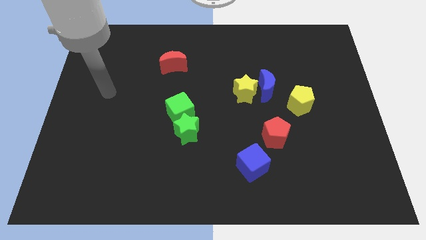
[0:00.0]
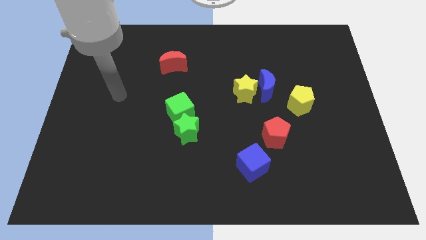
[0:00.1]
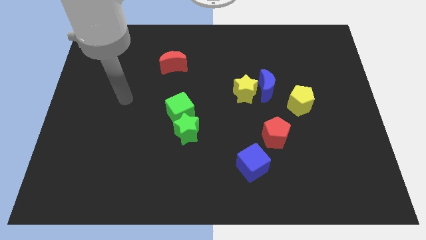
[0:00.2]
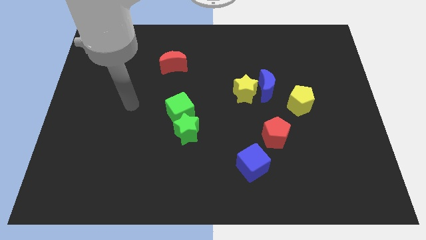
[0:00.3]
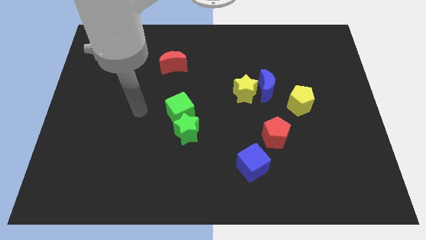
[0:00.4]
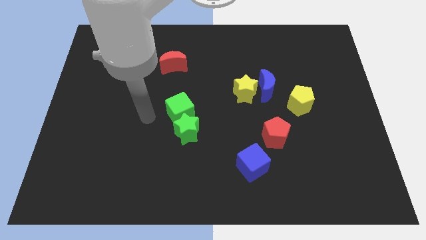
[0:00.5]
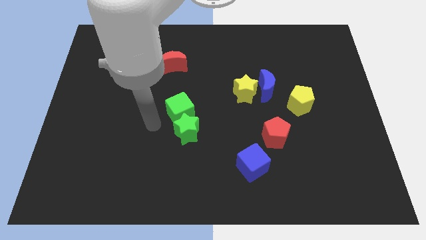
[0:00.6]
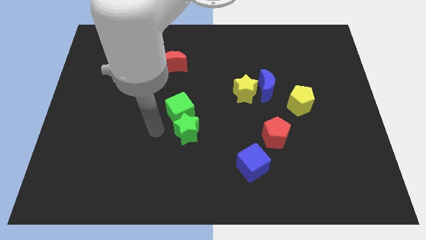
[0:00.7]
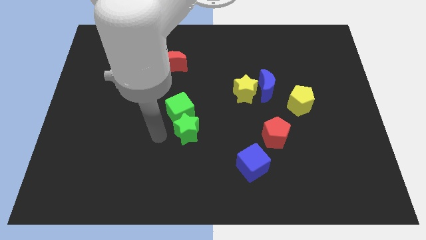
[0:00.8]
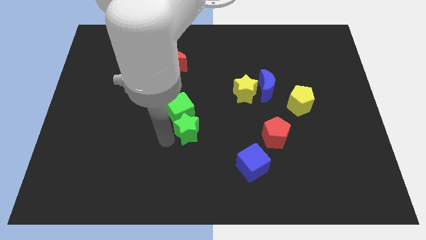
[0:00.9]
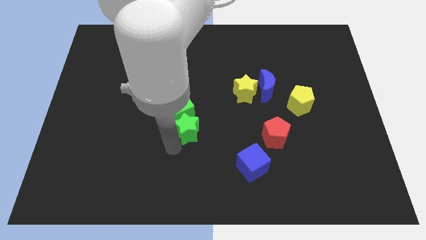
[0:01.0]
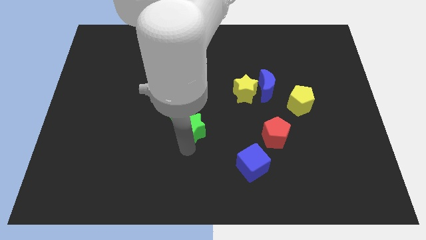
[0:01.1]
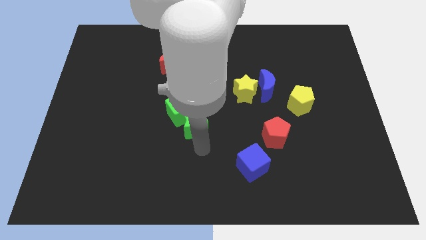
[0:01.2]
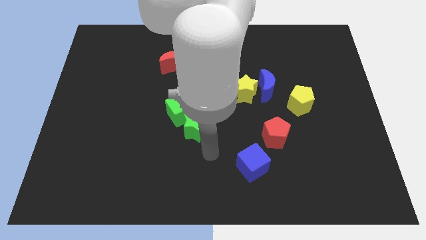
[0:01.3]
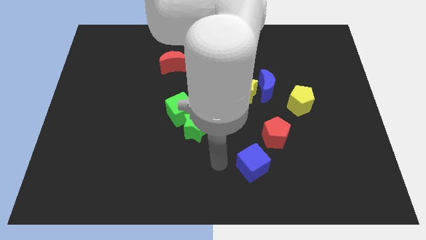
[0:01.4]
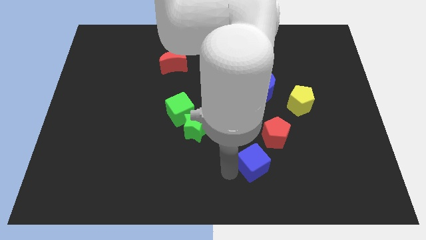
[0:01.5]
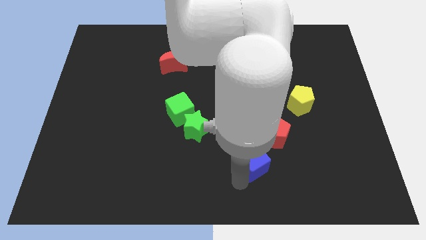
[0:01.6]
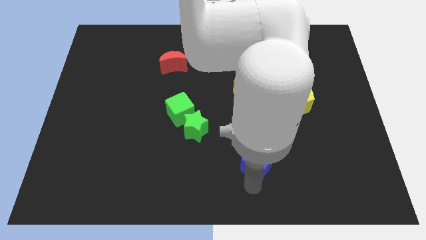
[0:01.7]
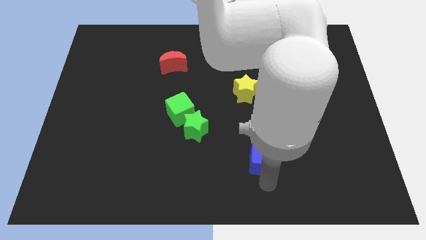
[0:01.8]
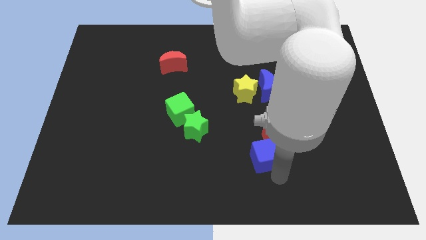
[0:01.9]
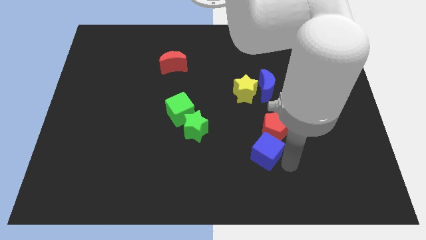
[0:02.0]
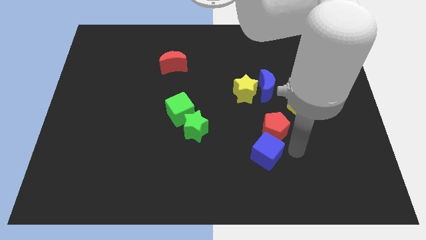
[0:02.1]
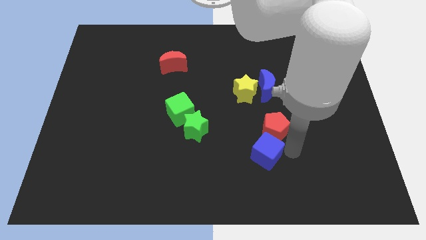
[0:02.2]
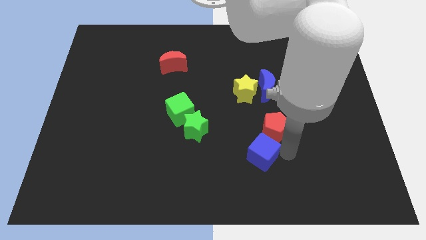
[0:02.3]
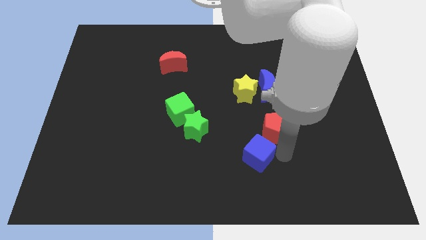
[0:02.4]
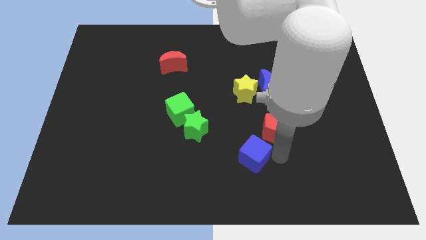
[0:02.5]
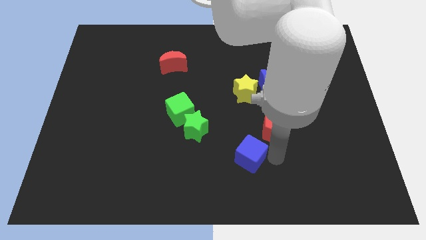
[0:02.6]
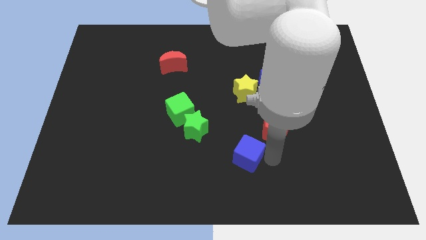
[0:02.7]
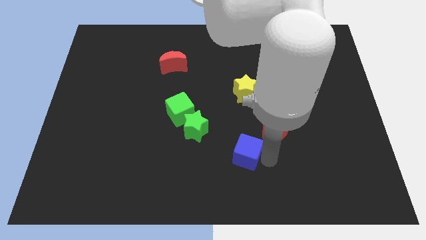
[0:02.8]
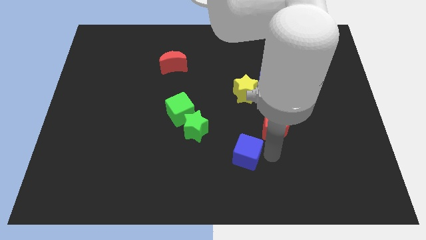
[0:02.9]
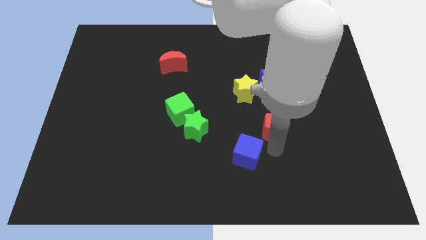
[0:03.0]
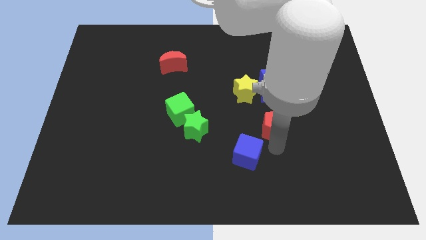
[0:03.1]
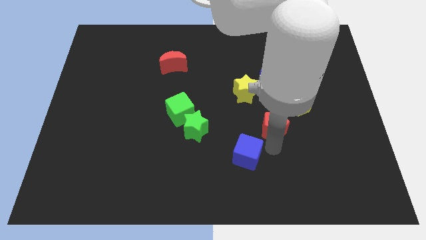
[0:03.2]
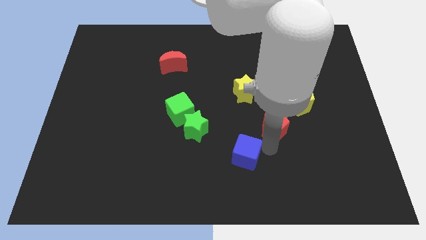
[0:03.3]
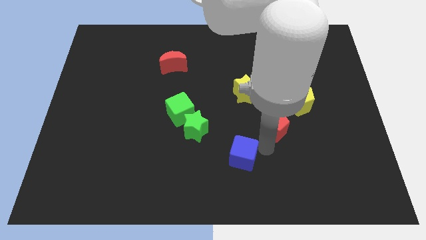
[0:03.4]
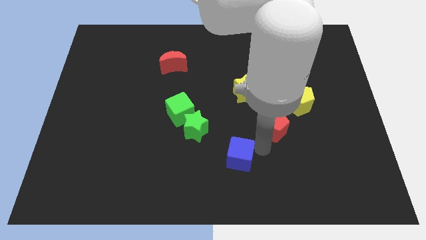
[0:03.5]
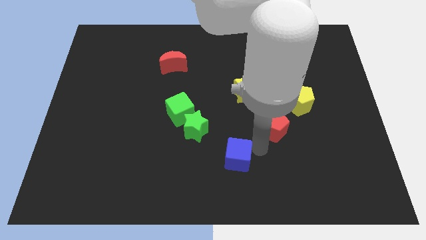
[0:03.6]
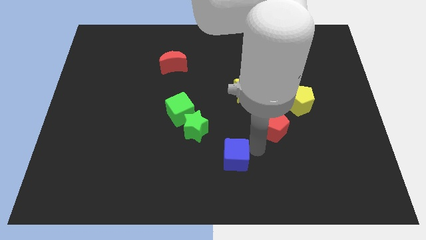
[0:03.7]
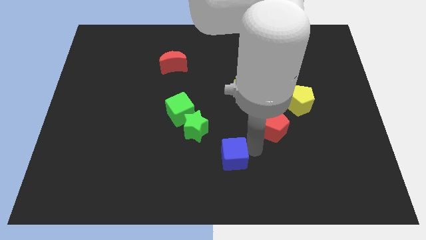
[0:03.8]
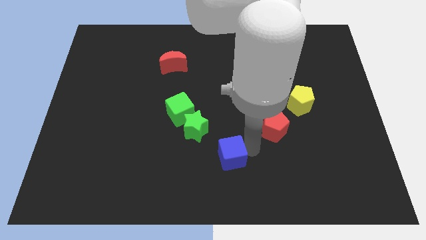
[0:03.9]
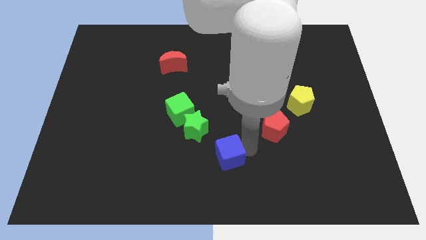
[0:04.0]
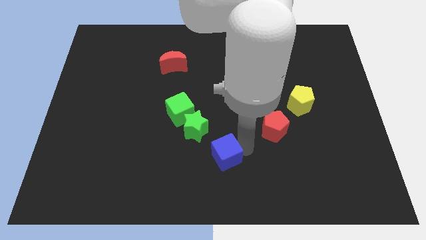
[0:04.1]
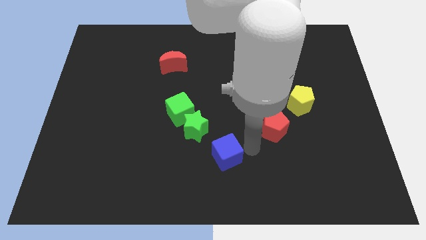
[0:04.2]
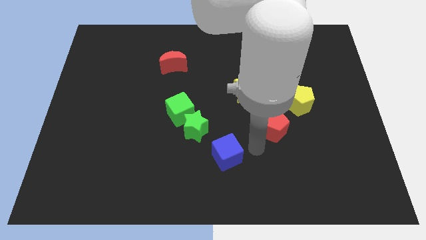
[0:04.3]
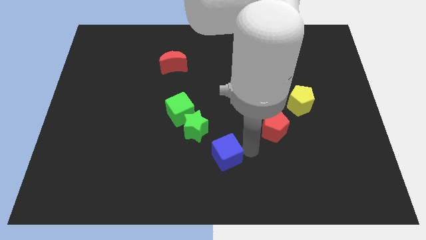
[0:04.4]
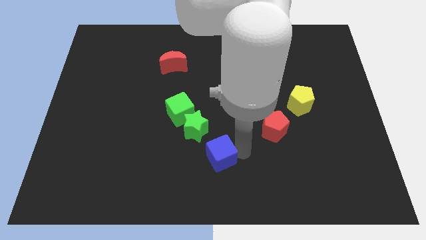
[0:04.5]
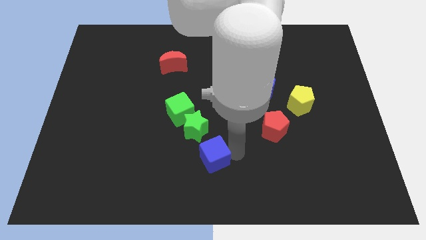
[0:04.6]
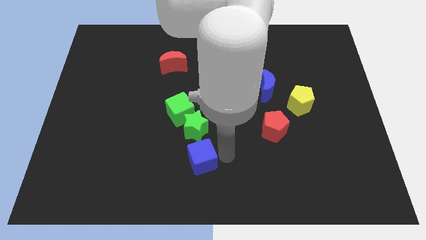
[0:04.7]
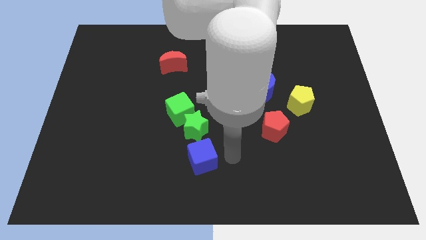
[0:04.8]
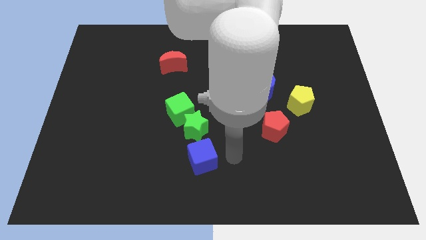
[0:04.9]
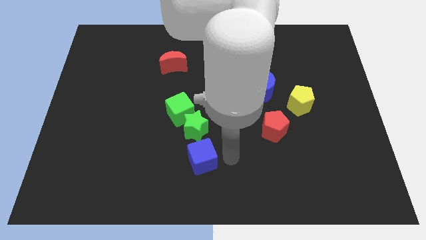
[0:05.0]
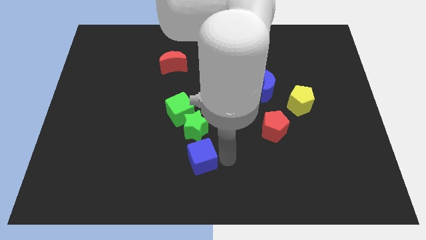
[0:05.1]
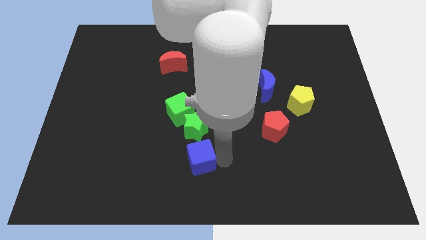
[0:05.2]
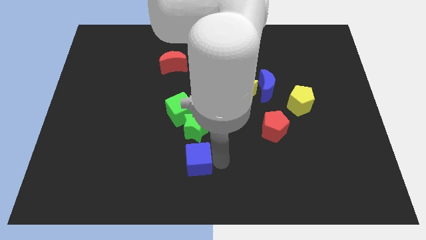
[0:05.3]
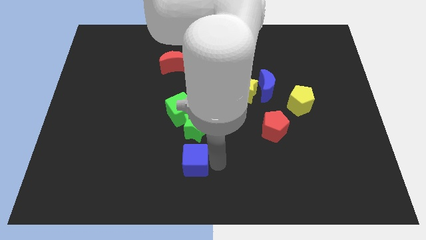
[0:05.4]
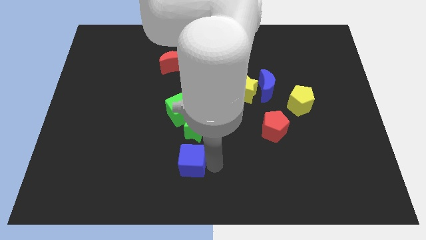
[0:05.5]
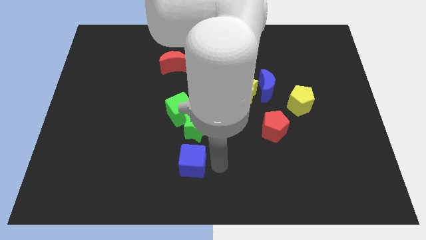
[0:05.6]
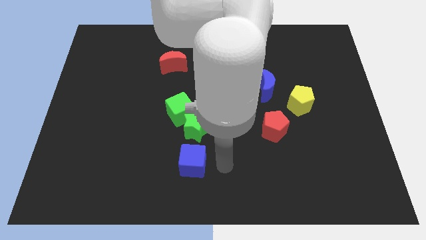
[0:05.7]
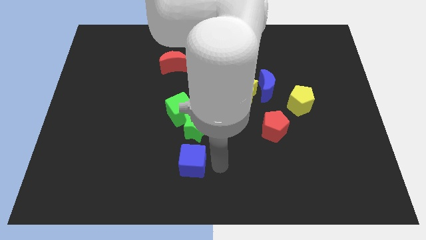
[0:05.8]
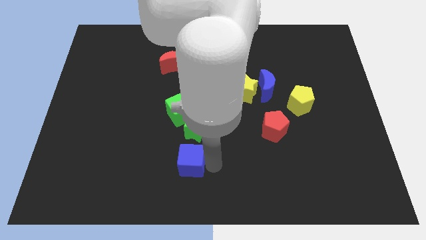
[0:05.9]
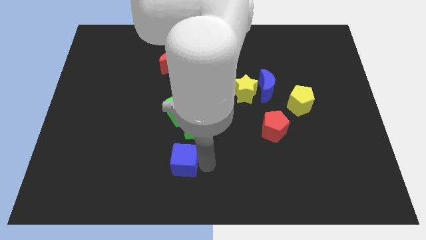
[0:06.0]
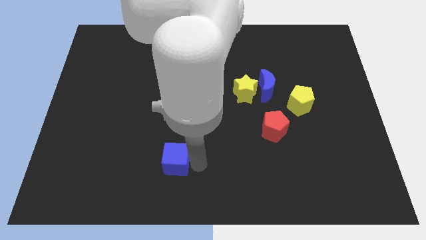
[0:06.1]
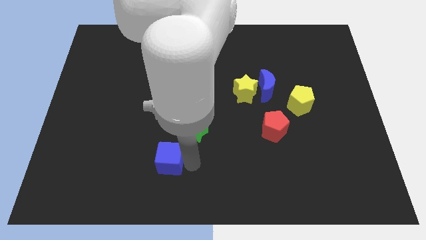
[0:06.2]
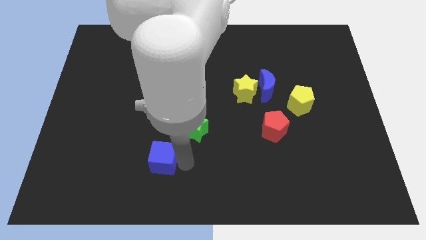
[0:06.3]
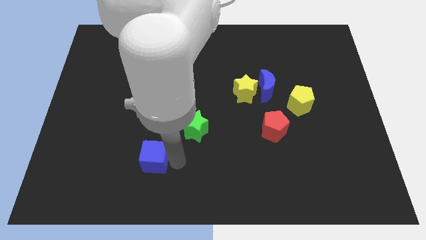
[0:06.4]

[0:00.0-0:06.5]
move the blue cube left

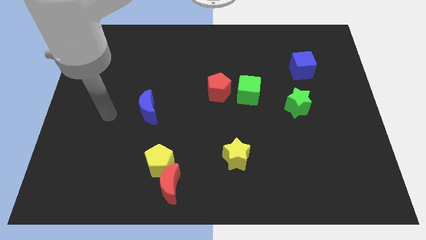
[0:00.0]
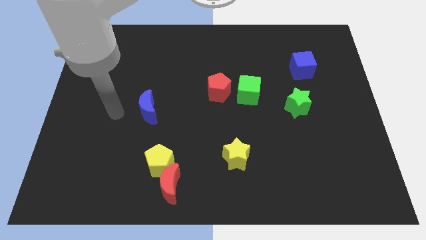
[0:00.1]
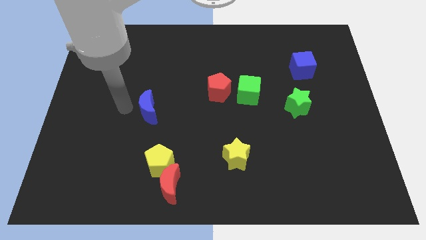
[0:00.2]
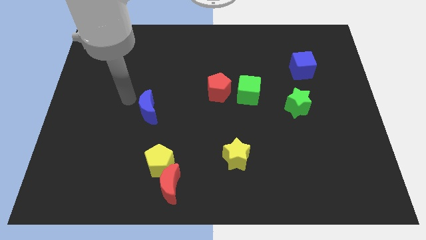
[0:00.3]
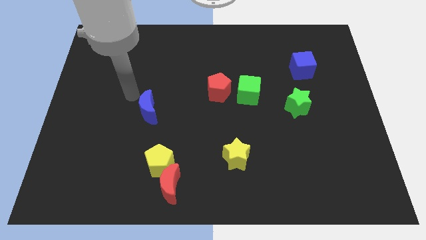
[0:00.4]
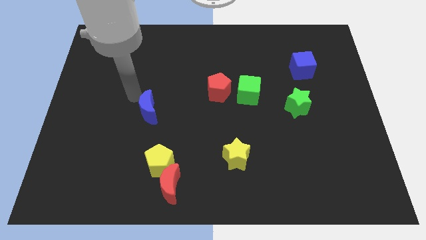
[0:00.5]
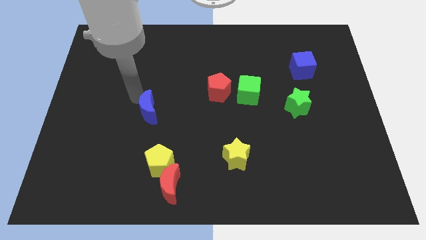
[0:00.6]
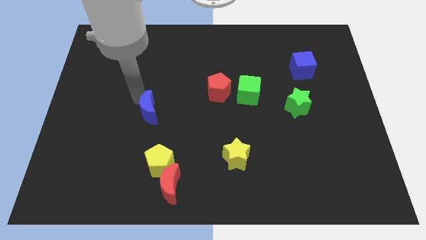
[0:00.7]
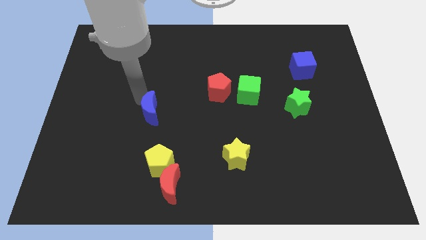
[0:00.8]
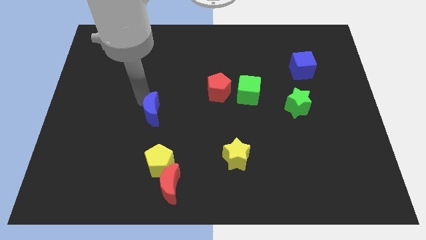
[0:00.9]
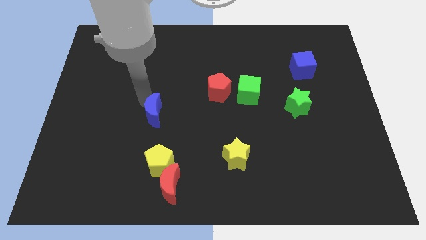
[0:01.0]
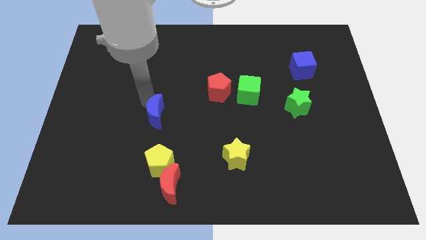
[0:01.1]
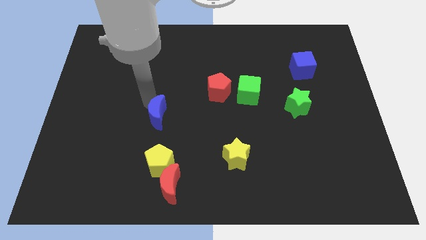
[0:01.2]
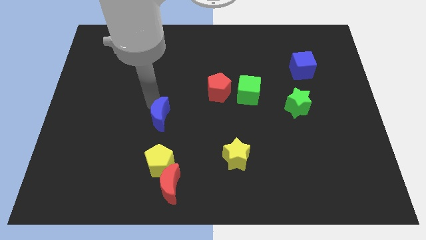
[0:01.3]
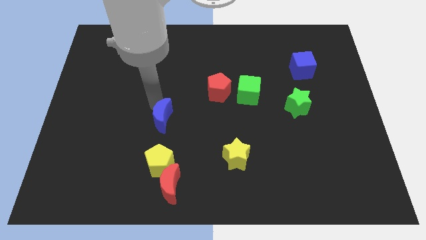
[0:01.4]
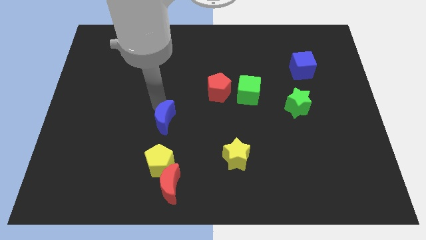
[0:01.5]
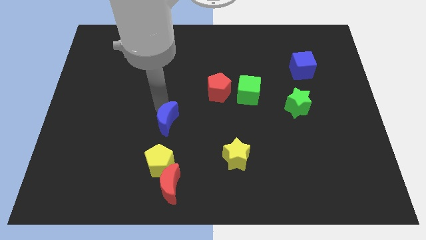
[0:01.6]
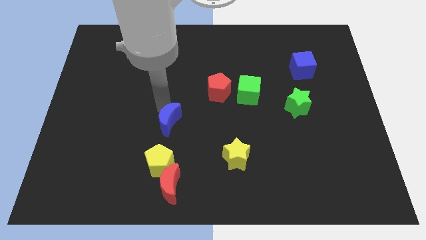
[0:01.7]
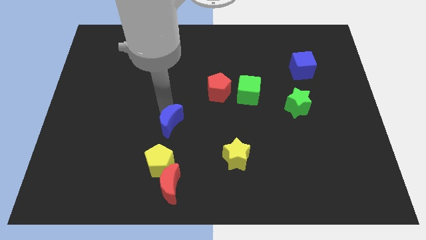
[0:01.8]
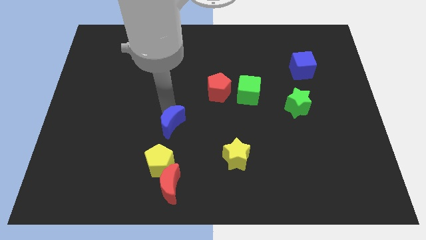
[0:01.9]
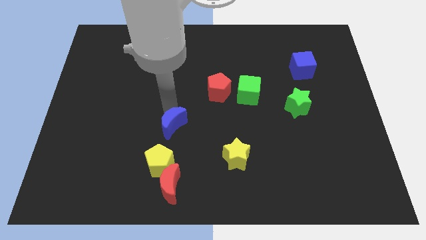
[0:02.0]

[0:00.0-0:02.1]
slide the blue moon somewhat downwards and right
